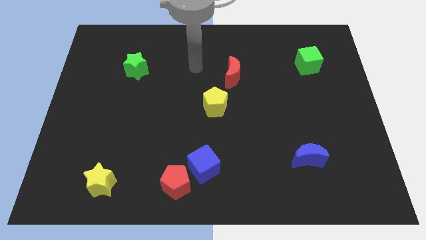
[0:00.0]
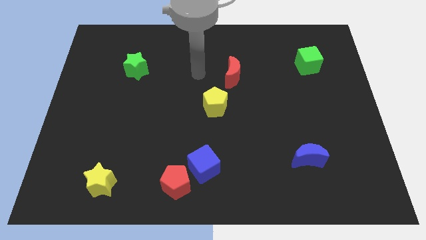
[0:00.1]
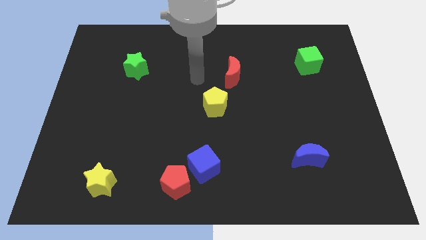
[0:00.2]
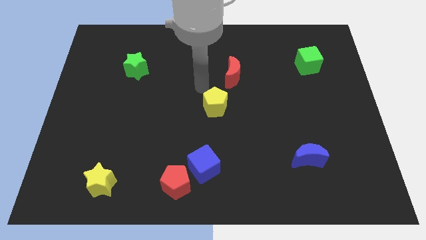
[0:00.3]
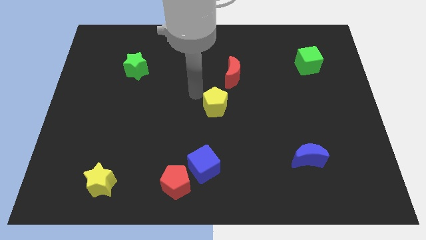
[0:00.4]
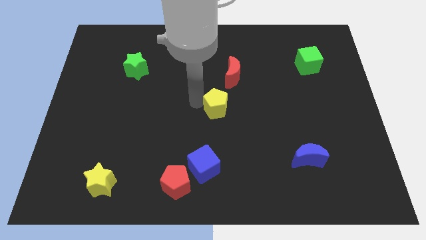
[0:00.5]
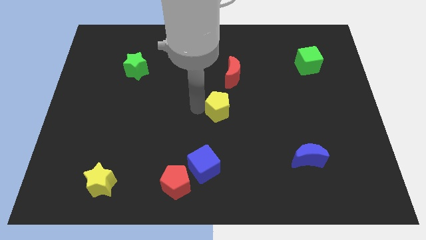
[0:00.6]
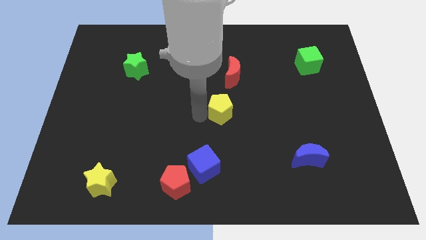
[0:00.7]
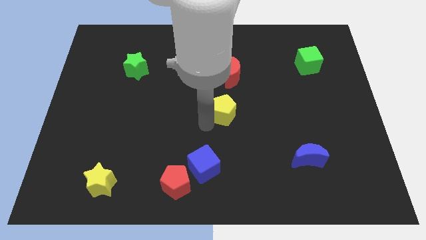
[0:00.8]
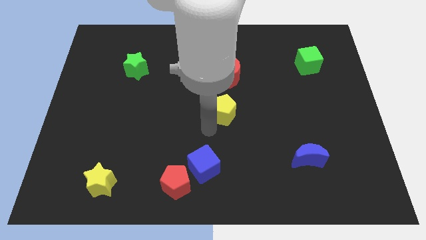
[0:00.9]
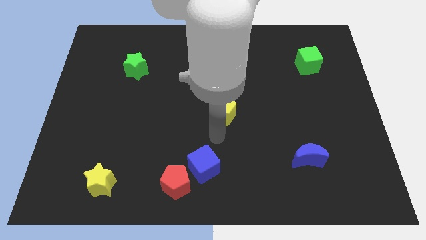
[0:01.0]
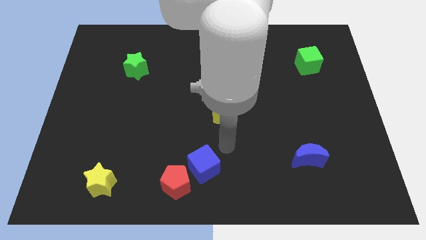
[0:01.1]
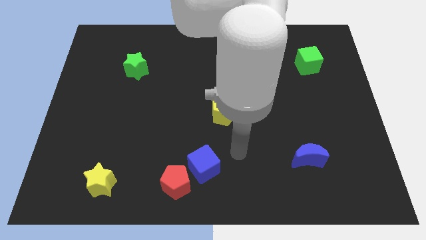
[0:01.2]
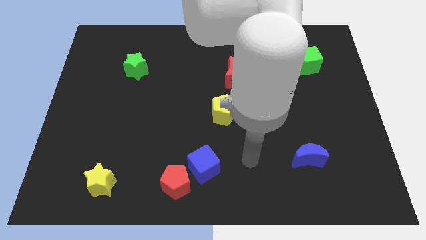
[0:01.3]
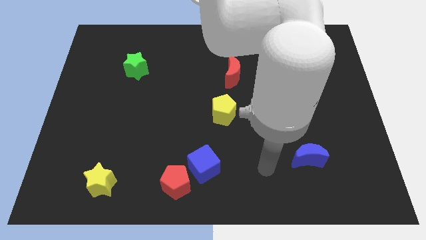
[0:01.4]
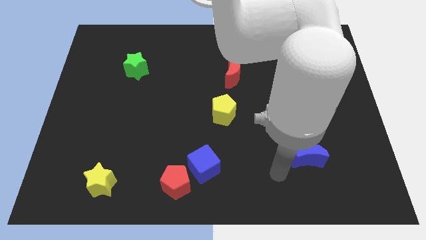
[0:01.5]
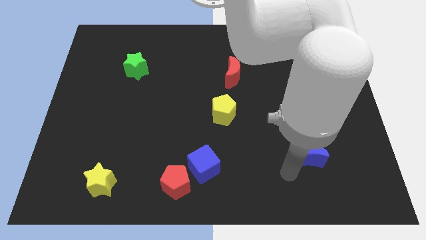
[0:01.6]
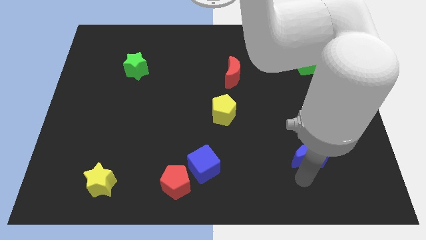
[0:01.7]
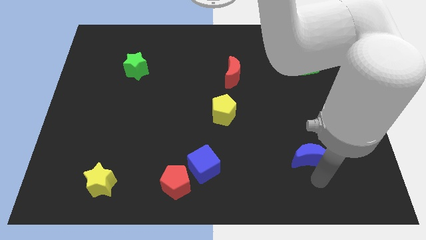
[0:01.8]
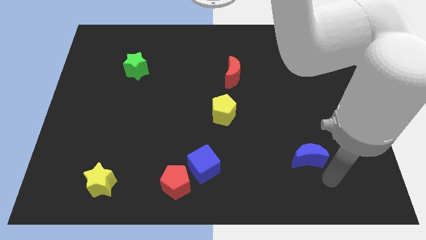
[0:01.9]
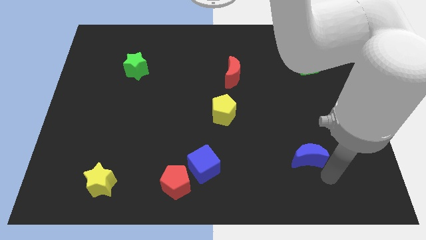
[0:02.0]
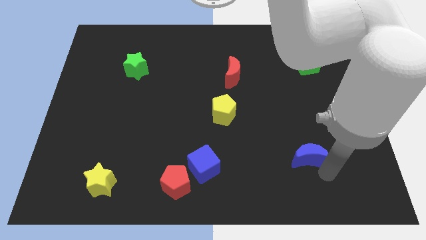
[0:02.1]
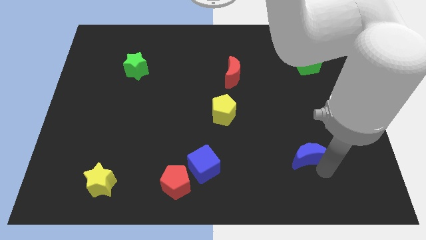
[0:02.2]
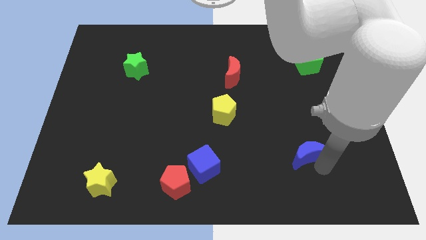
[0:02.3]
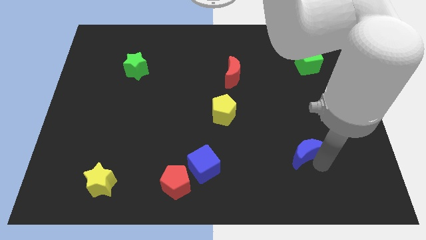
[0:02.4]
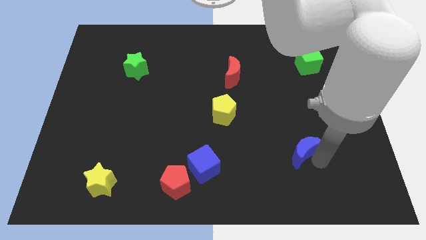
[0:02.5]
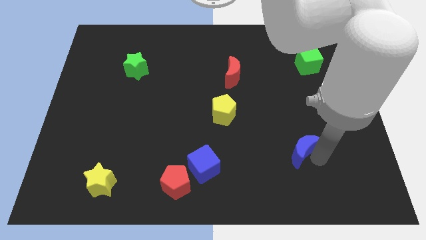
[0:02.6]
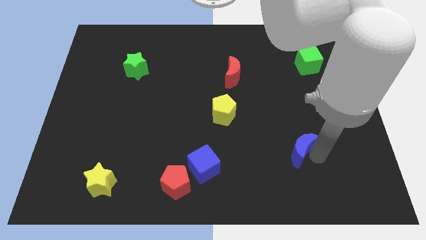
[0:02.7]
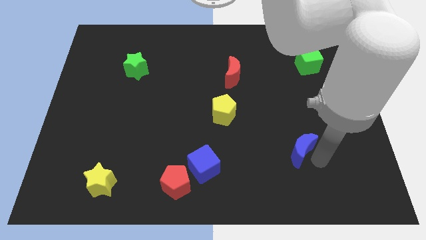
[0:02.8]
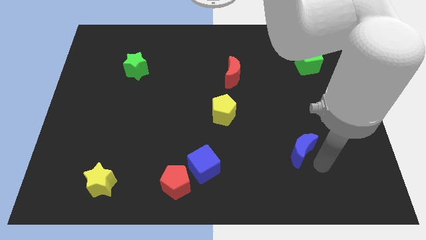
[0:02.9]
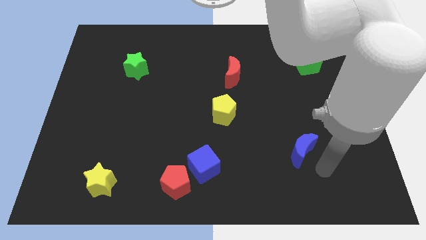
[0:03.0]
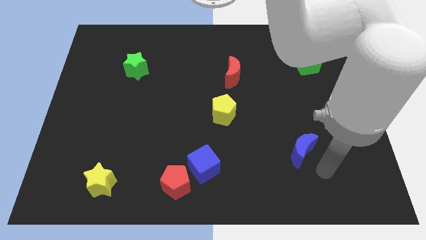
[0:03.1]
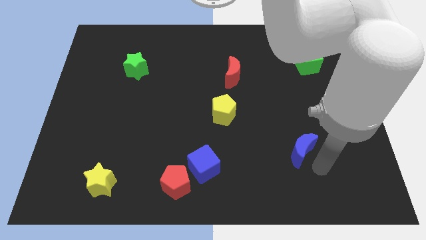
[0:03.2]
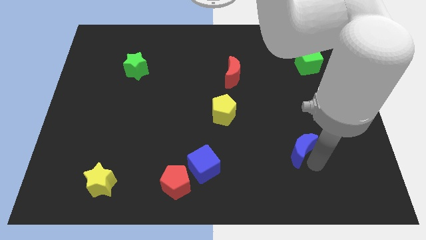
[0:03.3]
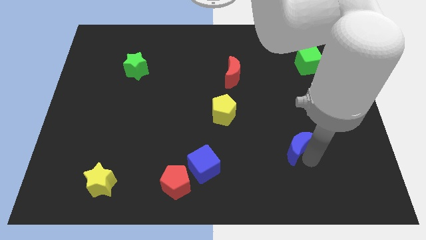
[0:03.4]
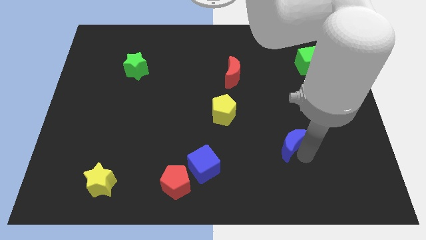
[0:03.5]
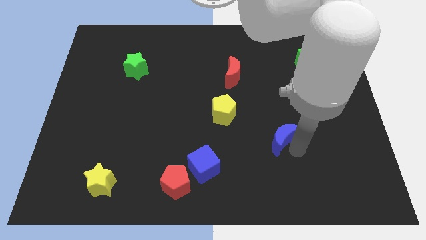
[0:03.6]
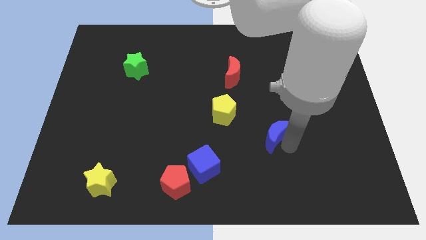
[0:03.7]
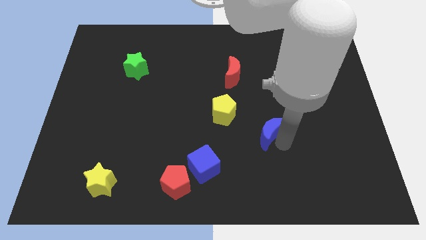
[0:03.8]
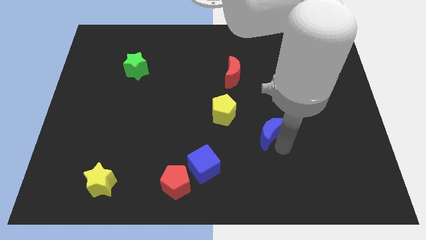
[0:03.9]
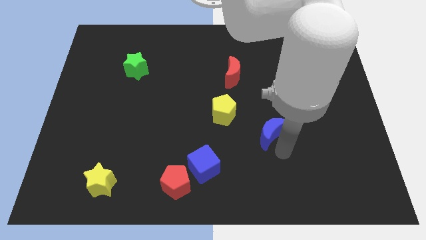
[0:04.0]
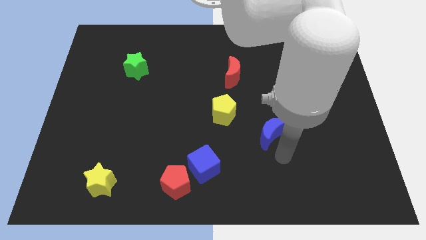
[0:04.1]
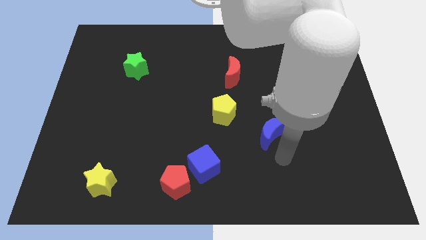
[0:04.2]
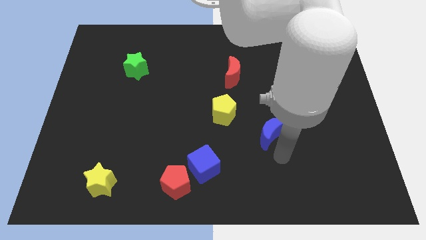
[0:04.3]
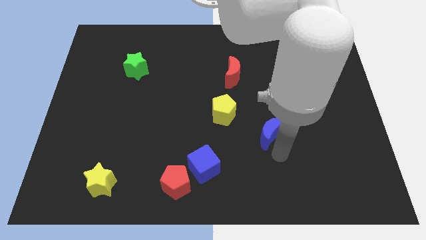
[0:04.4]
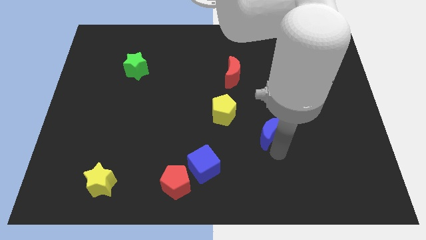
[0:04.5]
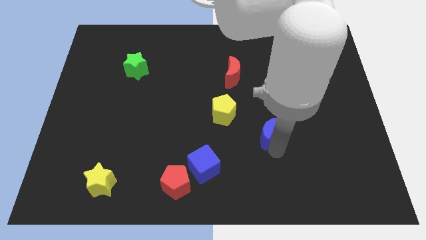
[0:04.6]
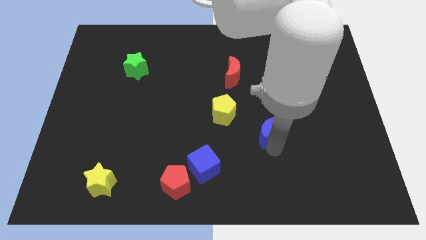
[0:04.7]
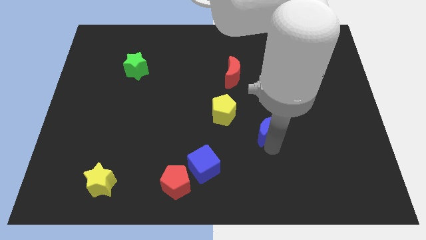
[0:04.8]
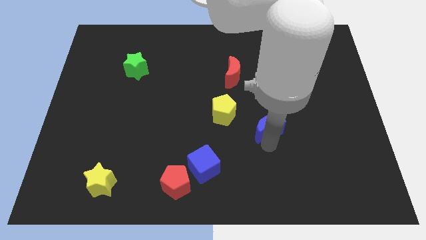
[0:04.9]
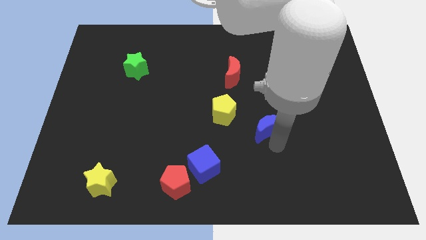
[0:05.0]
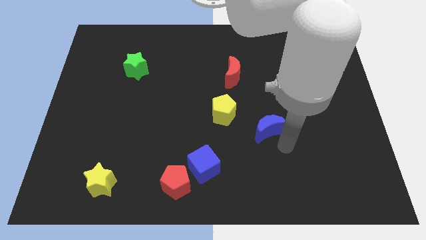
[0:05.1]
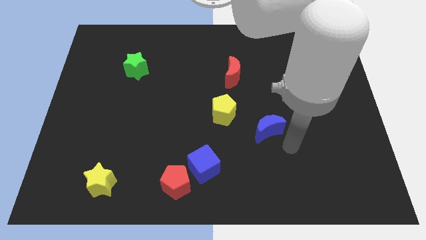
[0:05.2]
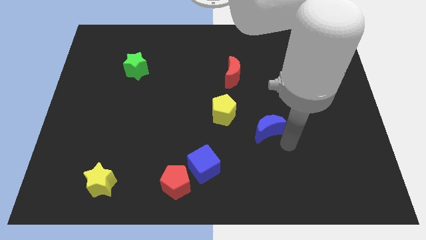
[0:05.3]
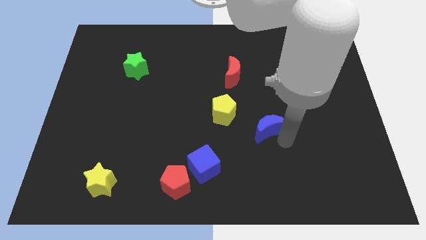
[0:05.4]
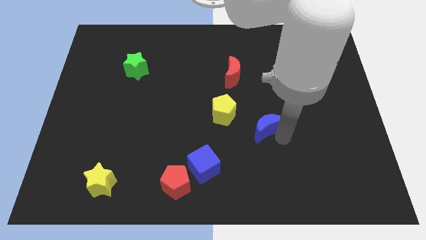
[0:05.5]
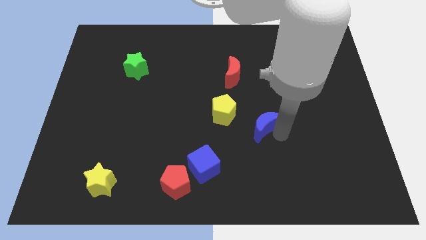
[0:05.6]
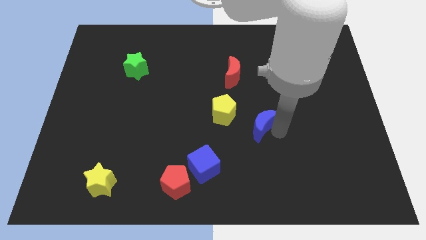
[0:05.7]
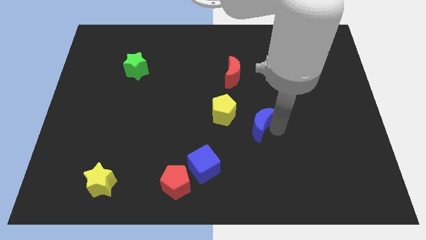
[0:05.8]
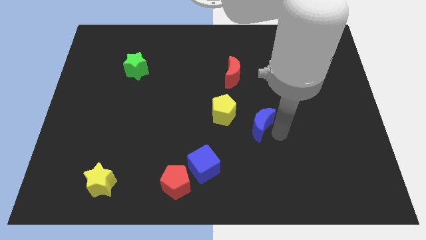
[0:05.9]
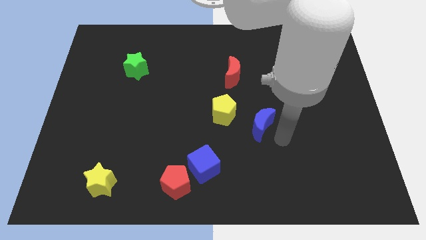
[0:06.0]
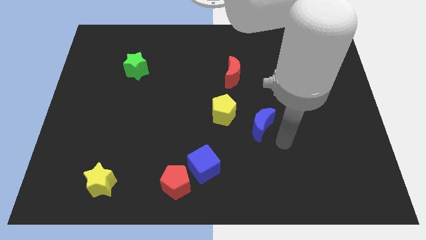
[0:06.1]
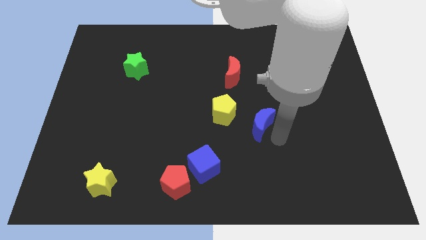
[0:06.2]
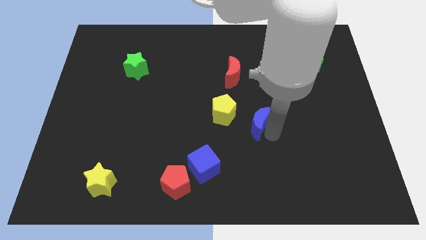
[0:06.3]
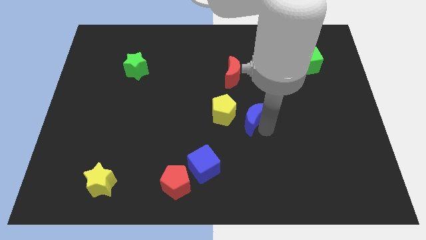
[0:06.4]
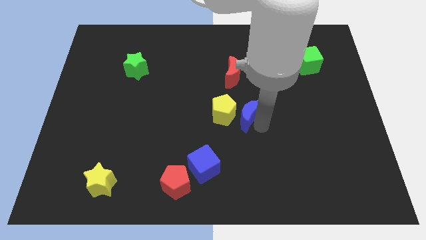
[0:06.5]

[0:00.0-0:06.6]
push the blue moon next to the yellow pentagon
